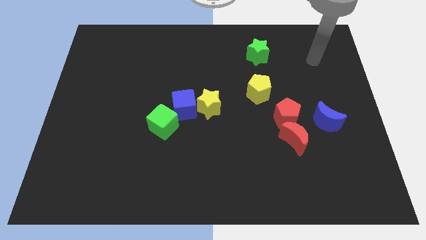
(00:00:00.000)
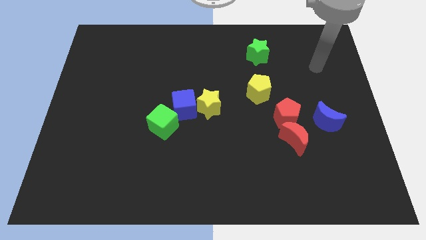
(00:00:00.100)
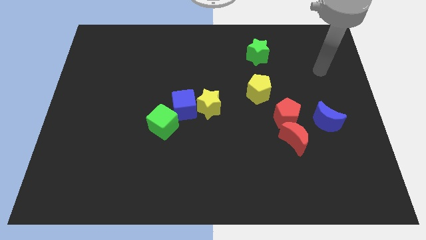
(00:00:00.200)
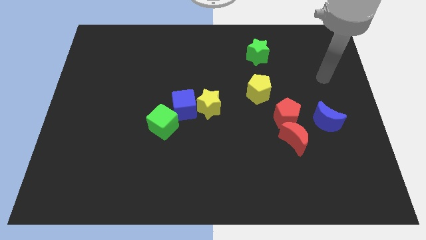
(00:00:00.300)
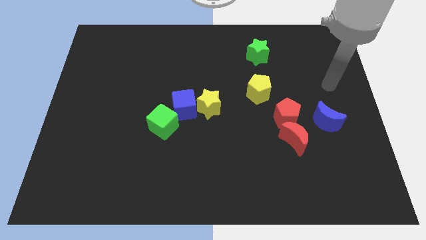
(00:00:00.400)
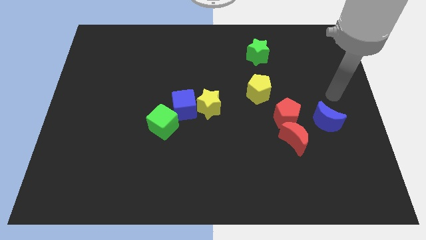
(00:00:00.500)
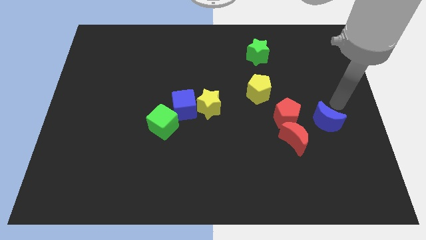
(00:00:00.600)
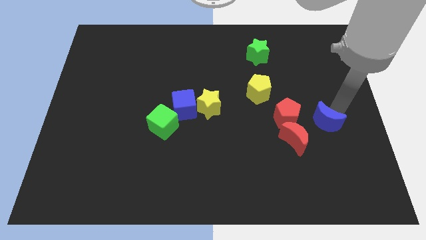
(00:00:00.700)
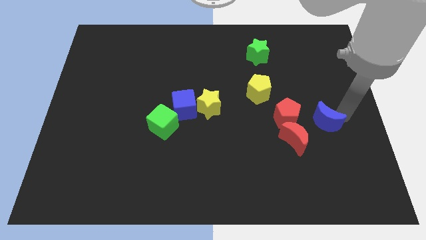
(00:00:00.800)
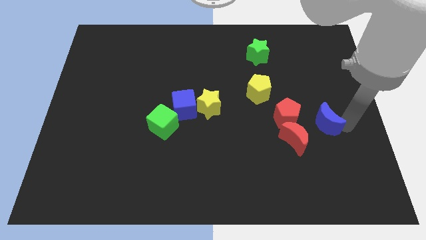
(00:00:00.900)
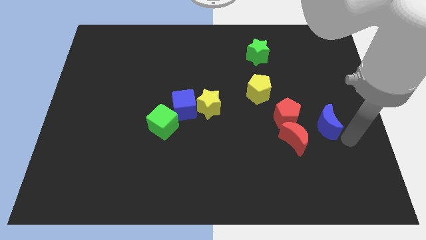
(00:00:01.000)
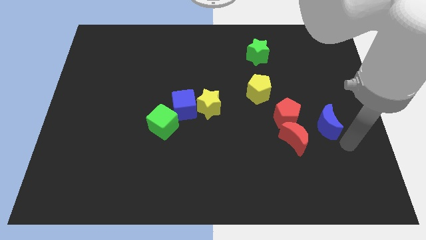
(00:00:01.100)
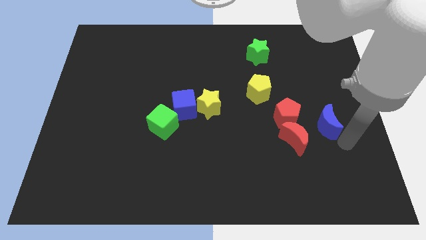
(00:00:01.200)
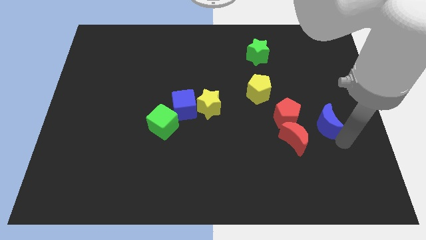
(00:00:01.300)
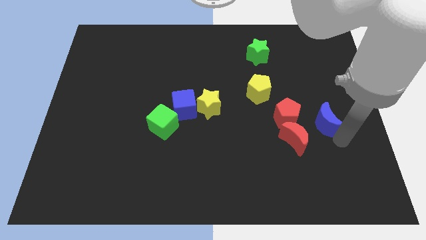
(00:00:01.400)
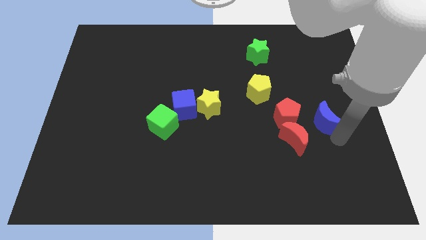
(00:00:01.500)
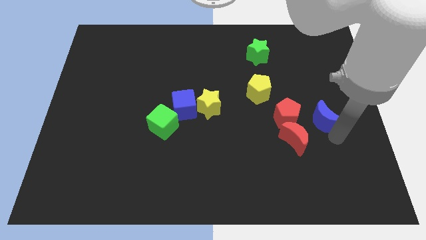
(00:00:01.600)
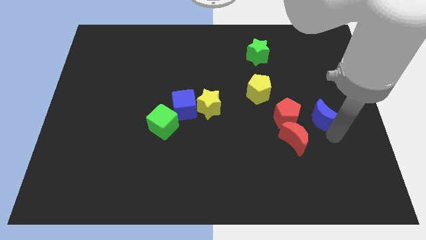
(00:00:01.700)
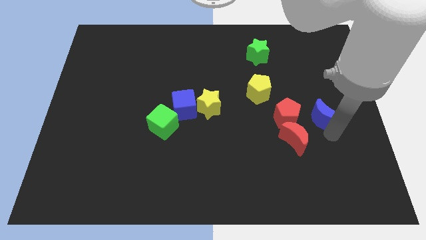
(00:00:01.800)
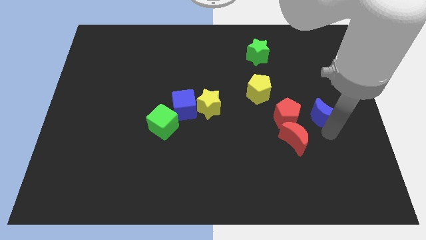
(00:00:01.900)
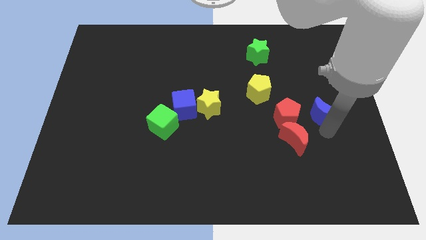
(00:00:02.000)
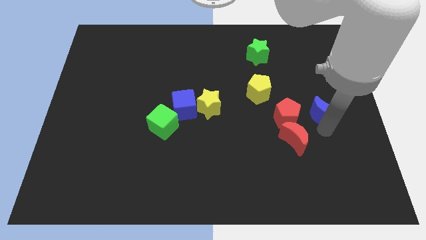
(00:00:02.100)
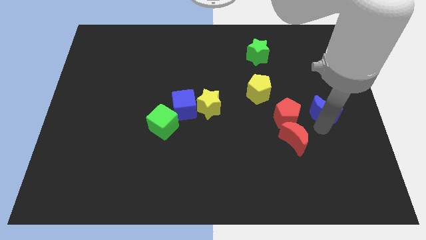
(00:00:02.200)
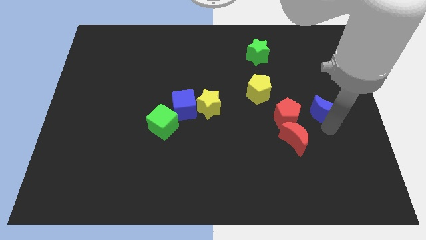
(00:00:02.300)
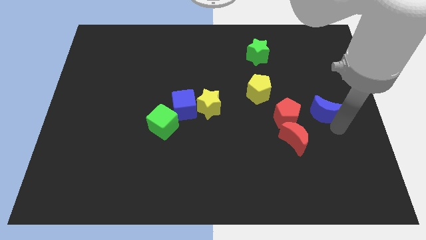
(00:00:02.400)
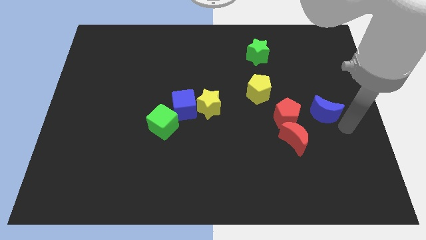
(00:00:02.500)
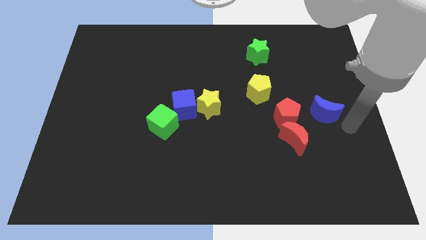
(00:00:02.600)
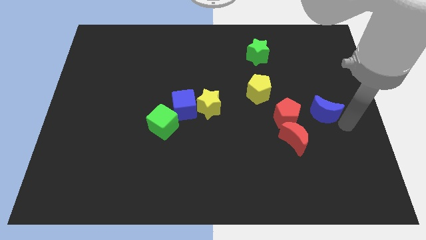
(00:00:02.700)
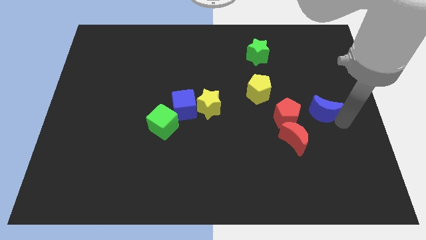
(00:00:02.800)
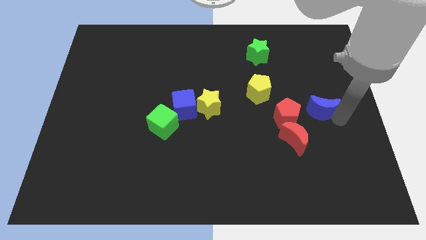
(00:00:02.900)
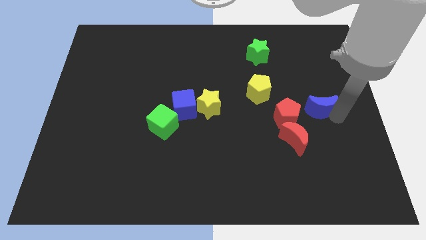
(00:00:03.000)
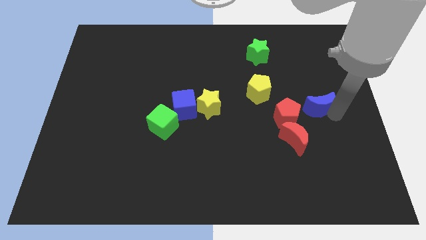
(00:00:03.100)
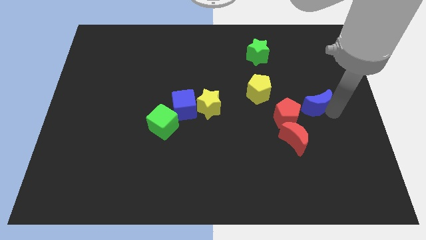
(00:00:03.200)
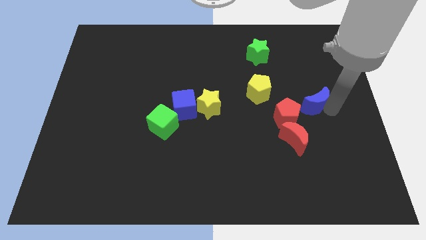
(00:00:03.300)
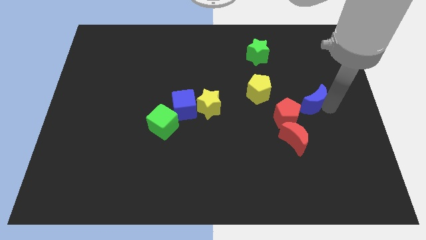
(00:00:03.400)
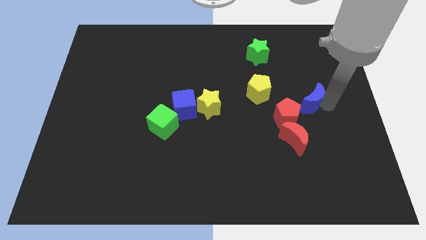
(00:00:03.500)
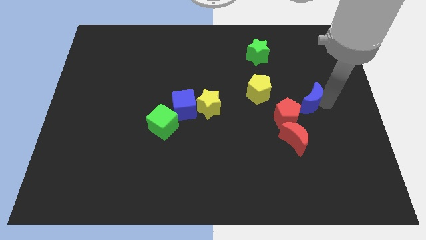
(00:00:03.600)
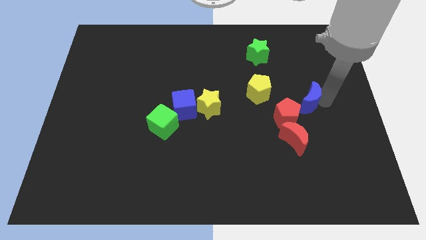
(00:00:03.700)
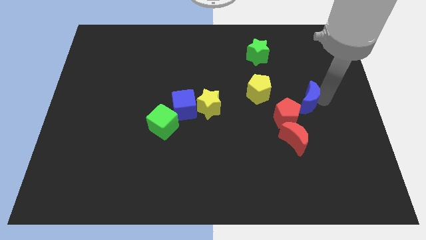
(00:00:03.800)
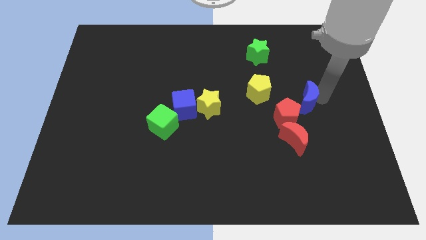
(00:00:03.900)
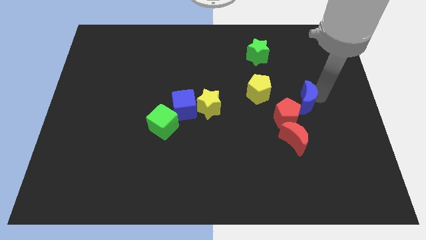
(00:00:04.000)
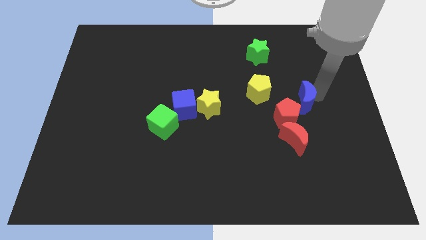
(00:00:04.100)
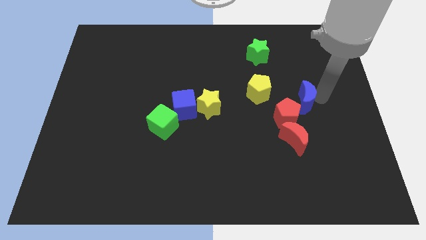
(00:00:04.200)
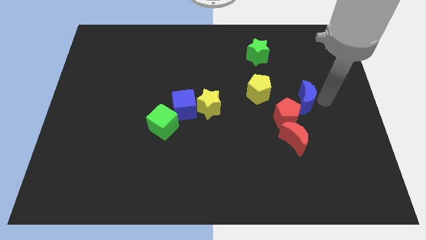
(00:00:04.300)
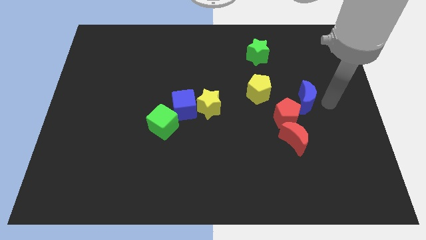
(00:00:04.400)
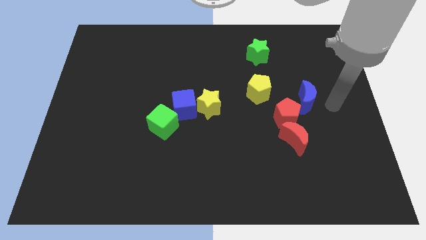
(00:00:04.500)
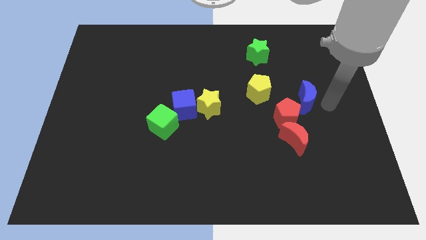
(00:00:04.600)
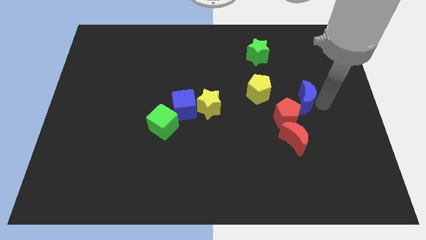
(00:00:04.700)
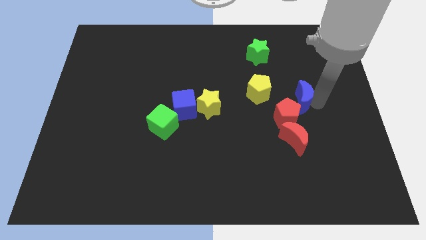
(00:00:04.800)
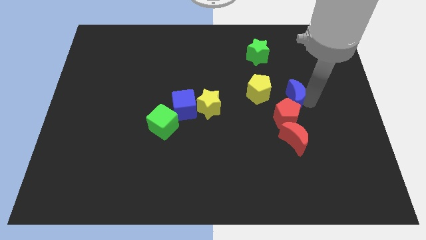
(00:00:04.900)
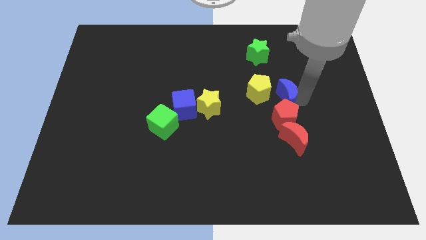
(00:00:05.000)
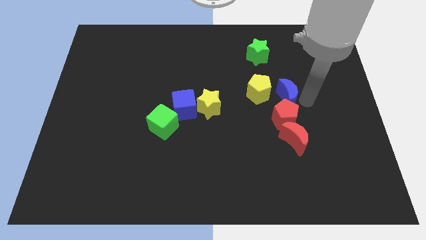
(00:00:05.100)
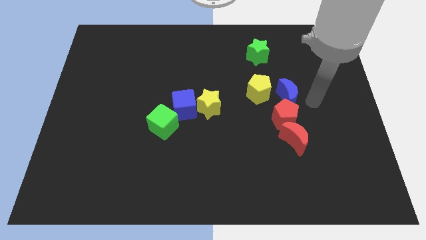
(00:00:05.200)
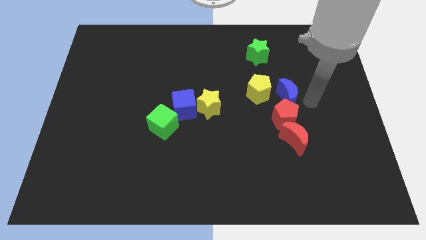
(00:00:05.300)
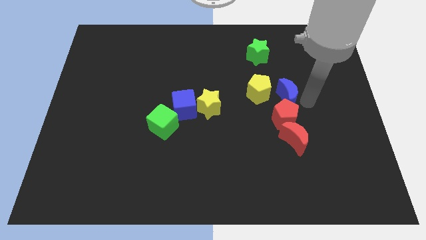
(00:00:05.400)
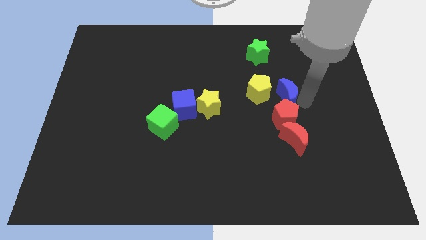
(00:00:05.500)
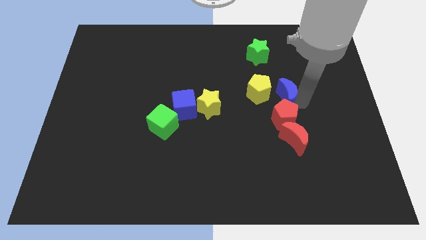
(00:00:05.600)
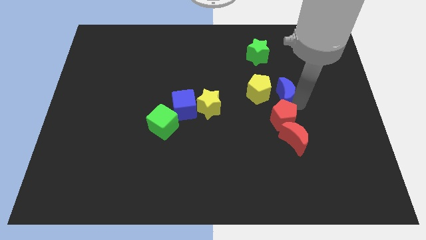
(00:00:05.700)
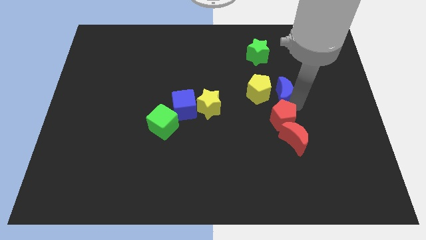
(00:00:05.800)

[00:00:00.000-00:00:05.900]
move the blue moon next to the yellow pentagon

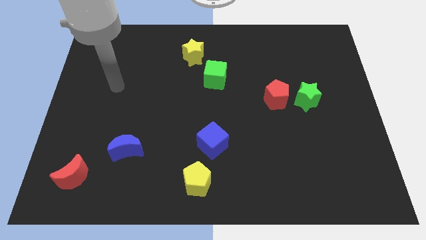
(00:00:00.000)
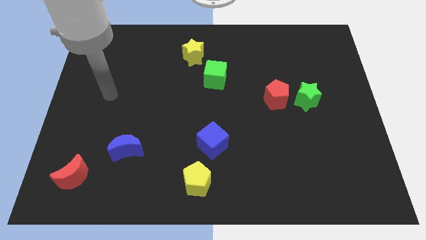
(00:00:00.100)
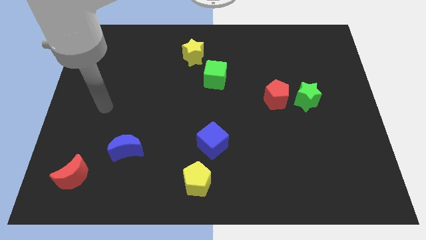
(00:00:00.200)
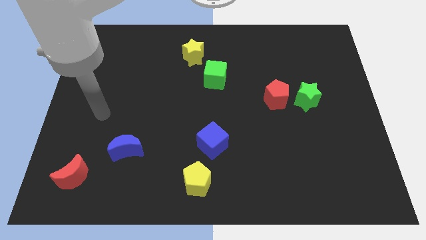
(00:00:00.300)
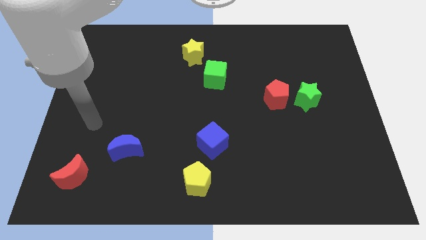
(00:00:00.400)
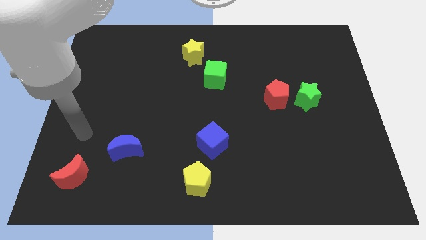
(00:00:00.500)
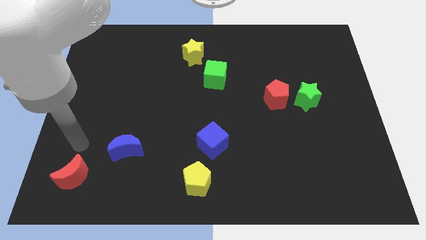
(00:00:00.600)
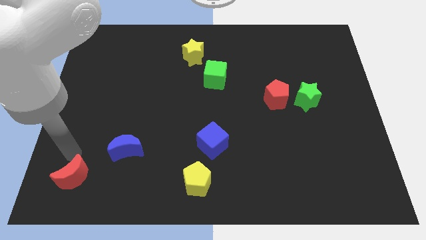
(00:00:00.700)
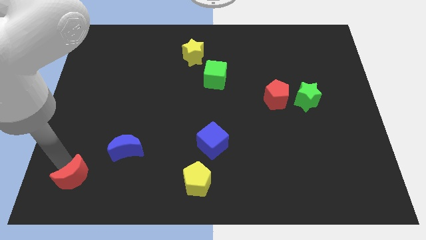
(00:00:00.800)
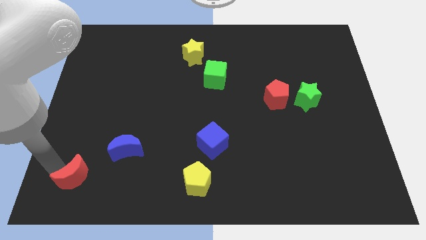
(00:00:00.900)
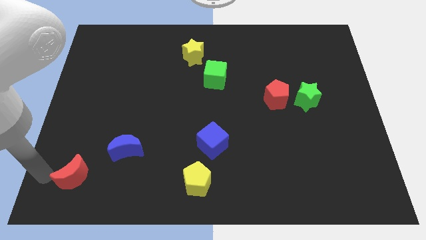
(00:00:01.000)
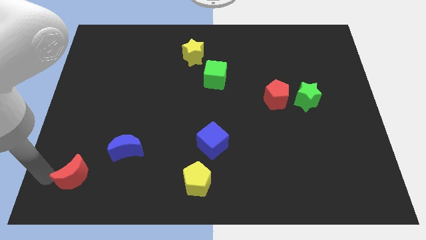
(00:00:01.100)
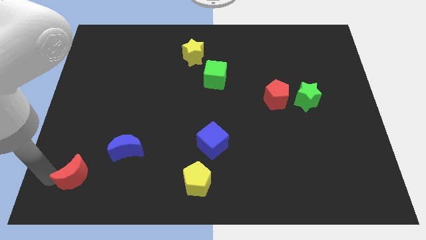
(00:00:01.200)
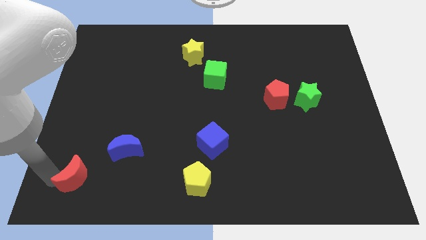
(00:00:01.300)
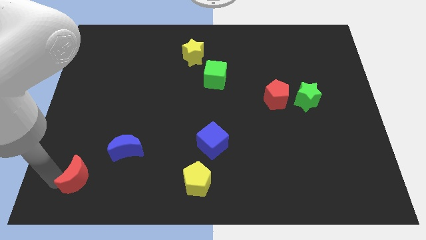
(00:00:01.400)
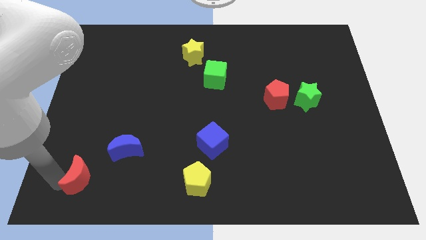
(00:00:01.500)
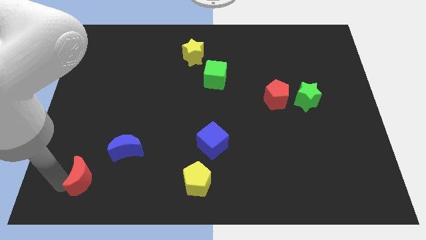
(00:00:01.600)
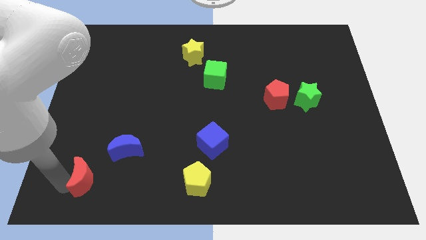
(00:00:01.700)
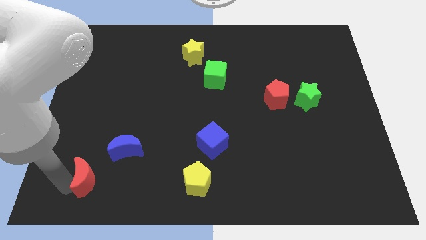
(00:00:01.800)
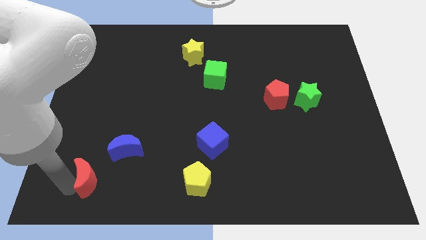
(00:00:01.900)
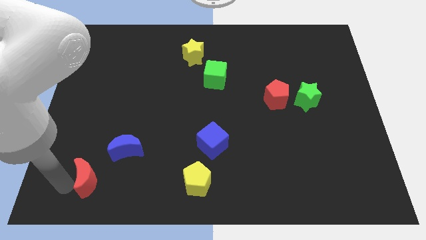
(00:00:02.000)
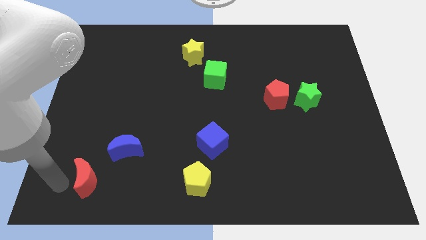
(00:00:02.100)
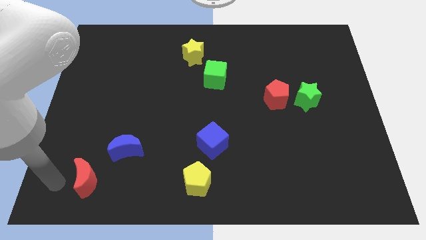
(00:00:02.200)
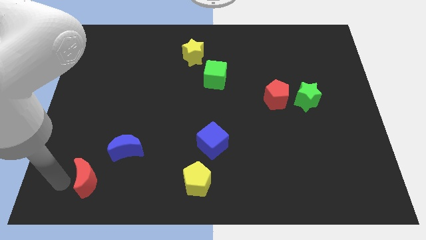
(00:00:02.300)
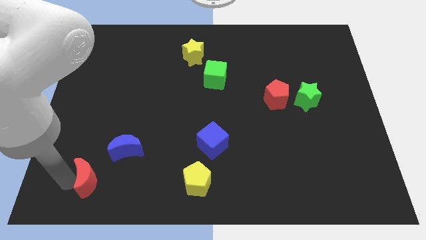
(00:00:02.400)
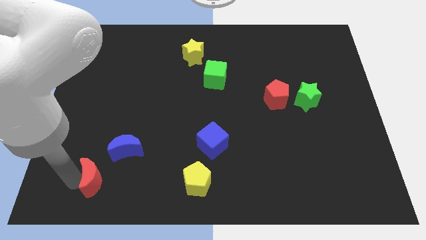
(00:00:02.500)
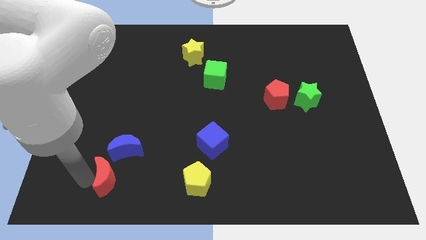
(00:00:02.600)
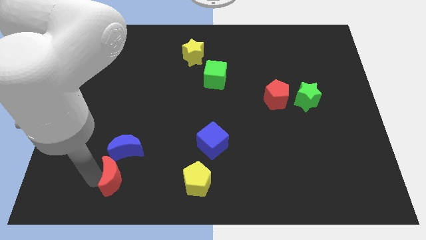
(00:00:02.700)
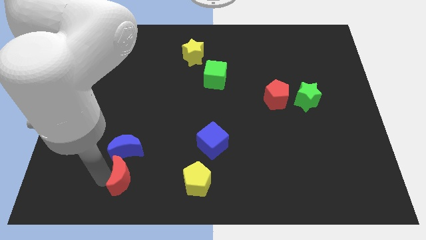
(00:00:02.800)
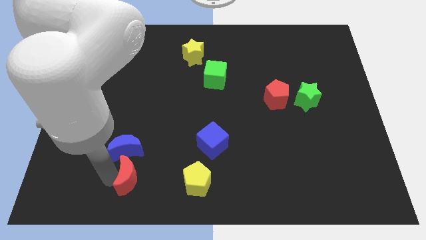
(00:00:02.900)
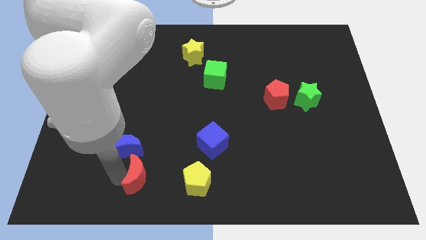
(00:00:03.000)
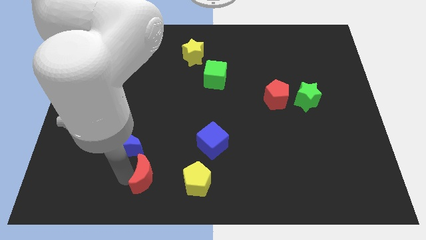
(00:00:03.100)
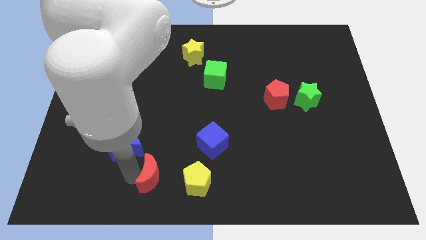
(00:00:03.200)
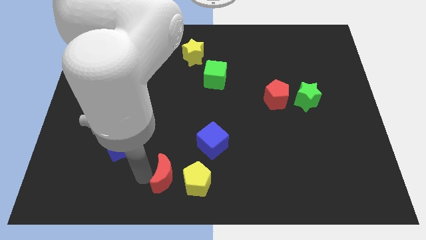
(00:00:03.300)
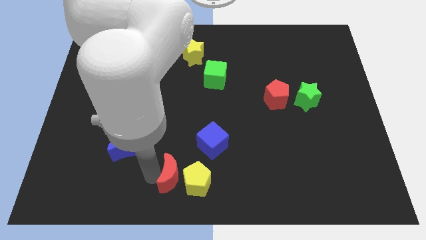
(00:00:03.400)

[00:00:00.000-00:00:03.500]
push the red moon next to the yellow pentagon
